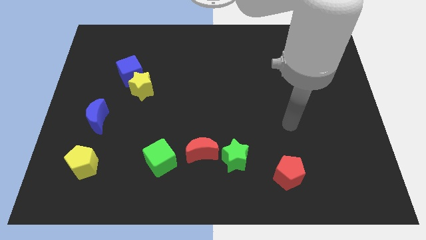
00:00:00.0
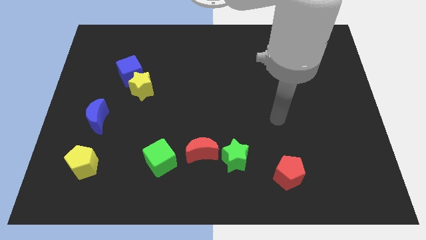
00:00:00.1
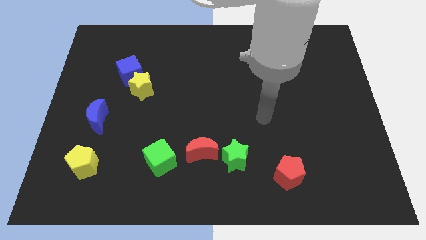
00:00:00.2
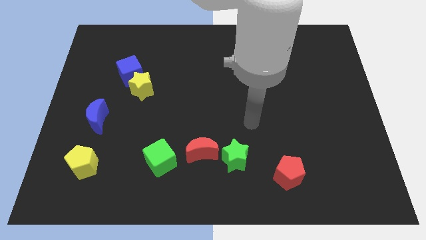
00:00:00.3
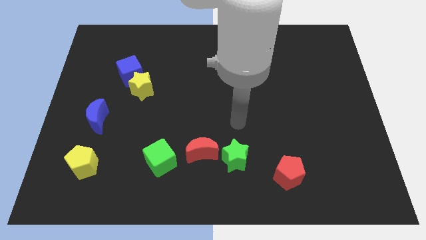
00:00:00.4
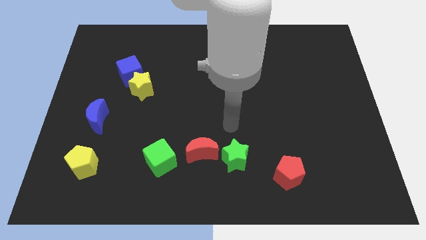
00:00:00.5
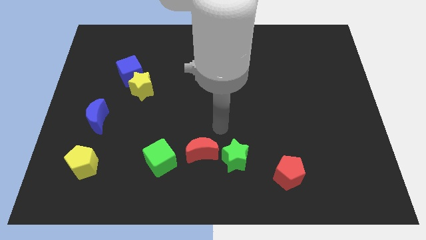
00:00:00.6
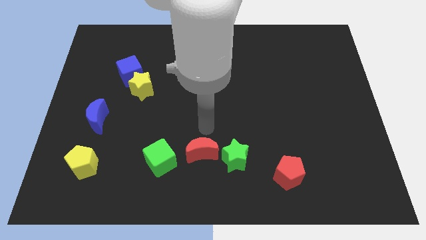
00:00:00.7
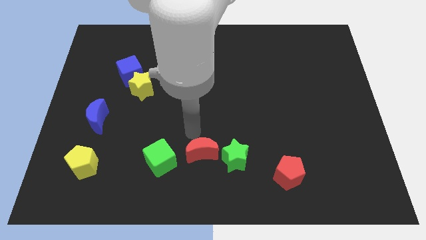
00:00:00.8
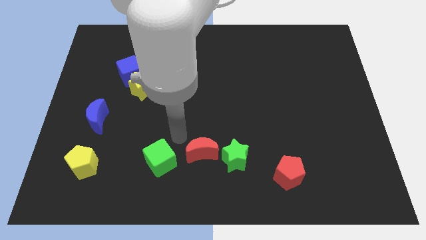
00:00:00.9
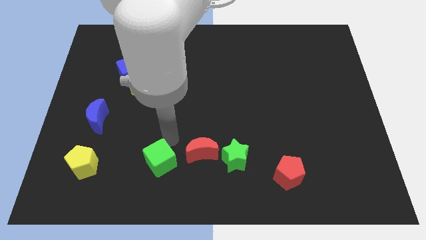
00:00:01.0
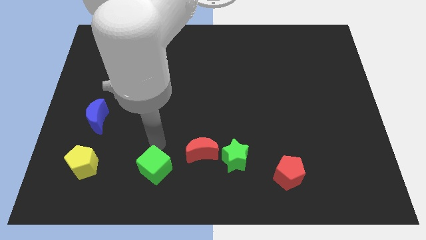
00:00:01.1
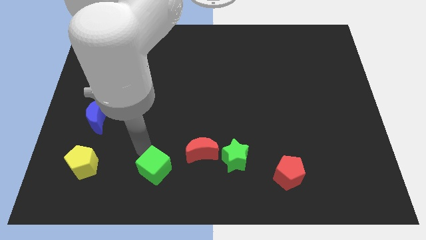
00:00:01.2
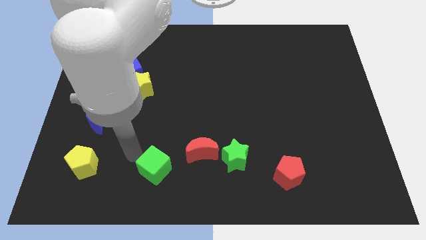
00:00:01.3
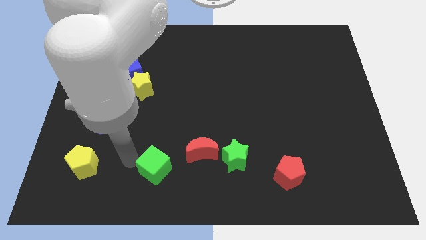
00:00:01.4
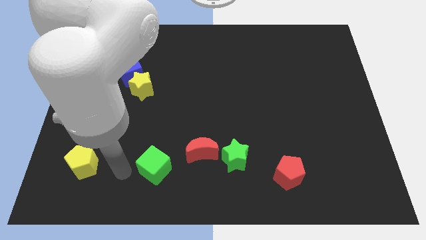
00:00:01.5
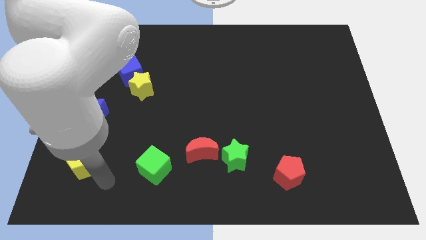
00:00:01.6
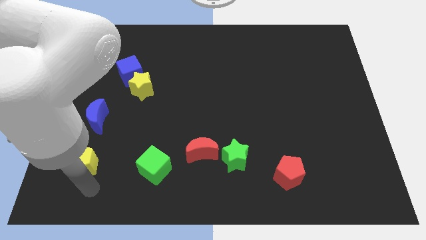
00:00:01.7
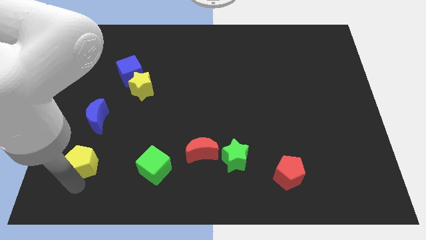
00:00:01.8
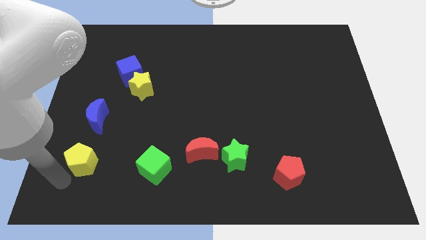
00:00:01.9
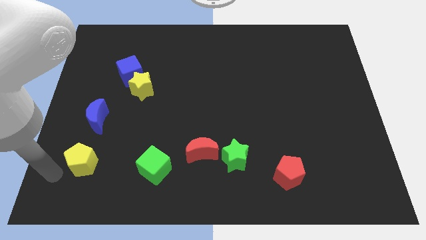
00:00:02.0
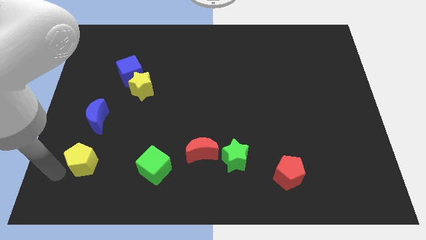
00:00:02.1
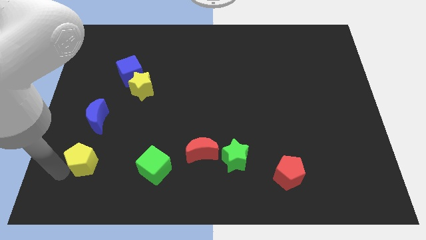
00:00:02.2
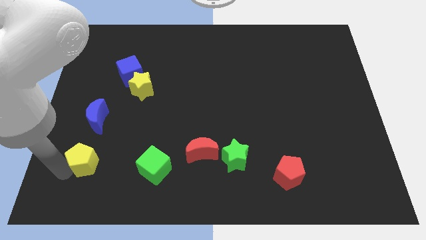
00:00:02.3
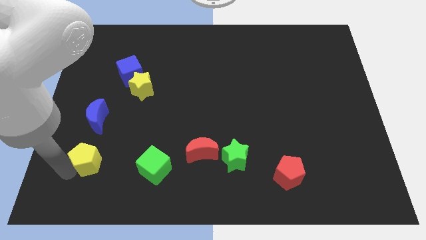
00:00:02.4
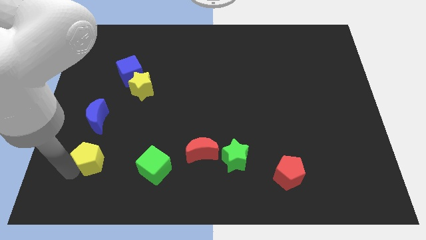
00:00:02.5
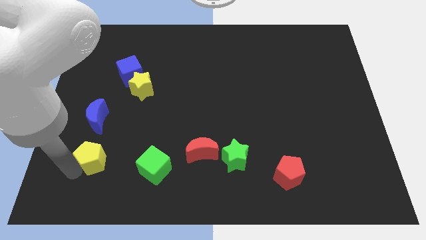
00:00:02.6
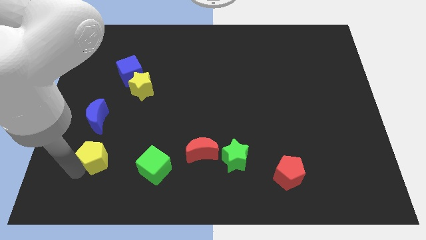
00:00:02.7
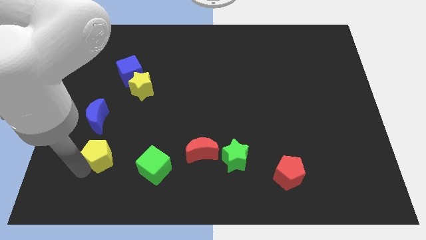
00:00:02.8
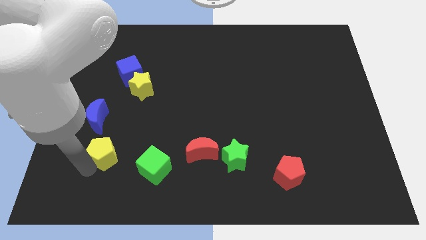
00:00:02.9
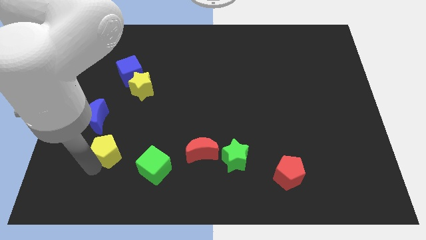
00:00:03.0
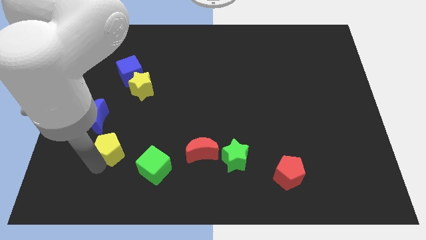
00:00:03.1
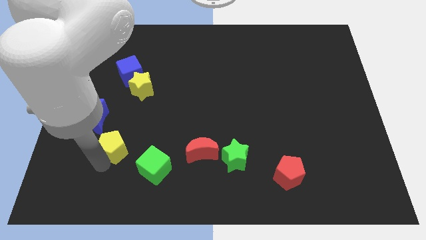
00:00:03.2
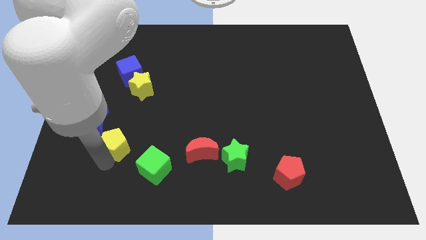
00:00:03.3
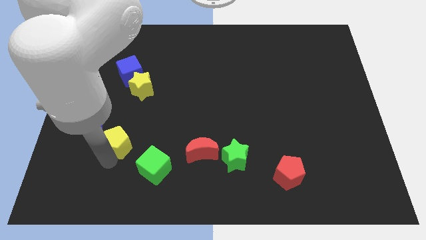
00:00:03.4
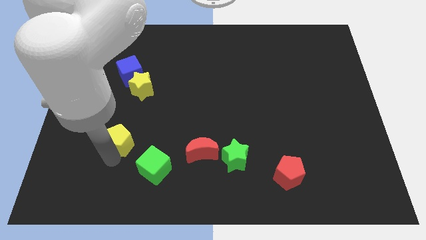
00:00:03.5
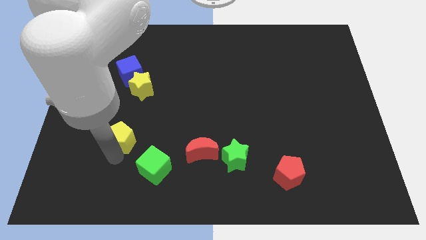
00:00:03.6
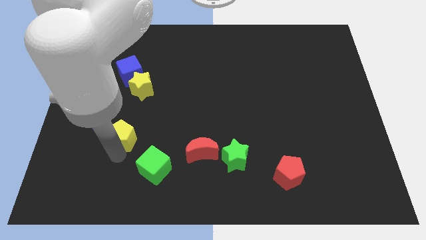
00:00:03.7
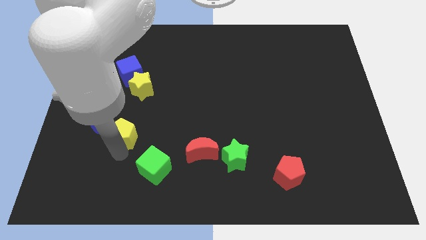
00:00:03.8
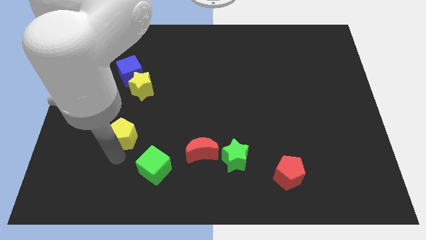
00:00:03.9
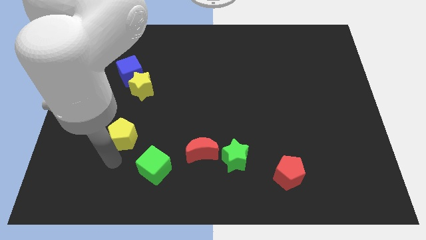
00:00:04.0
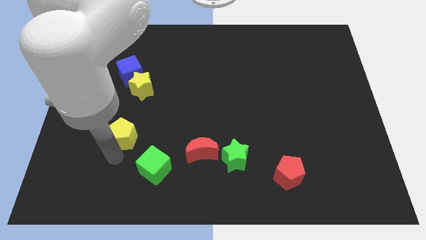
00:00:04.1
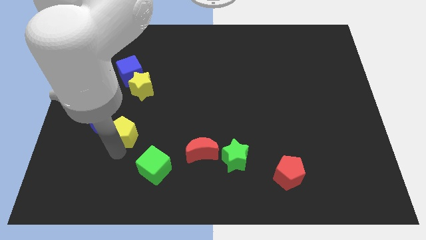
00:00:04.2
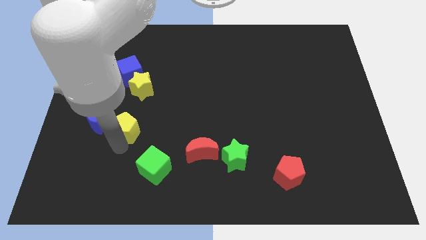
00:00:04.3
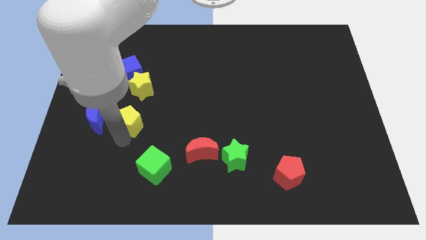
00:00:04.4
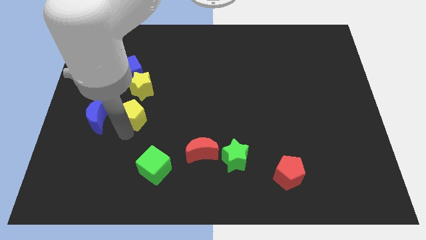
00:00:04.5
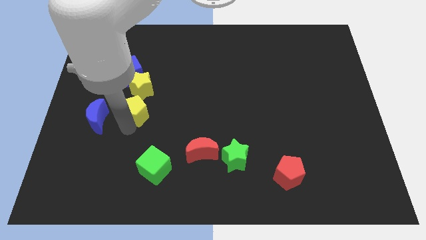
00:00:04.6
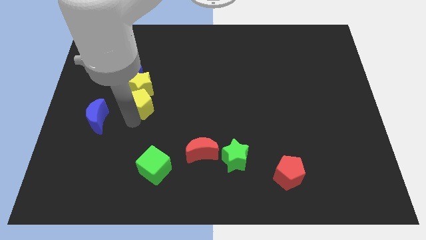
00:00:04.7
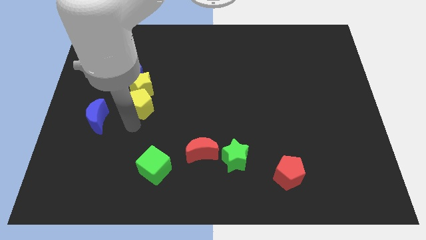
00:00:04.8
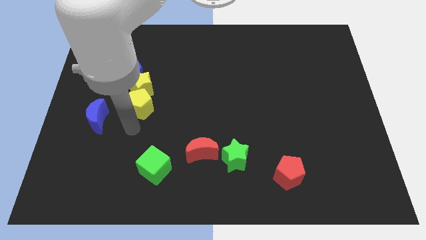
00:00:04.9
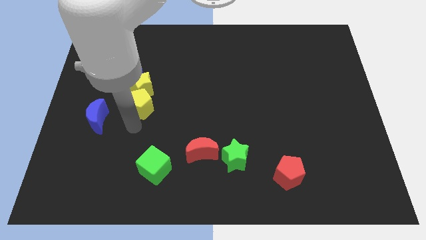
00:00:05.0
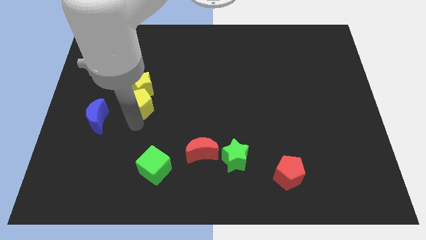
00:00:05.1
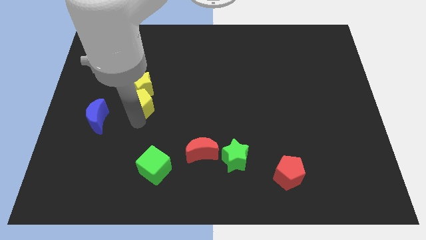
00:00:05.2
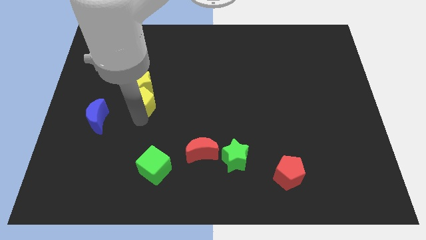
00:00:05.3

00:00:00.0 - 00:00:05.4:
move the yellow pentagon to the bottom right side of the blue cube

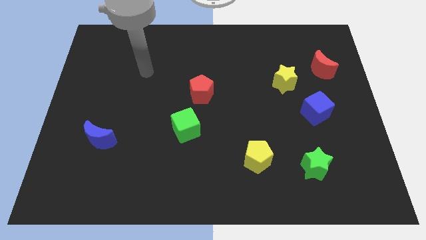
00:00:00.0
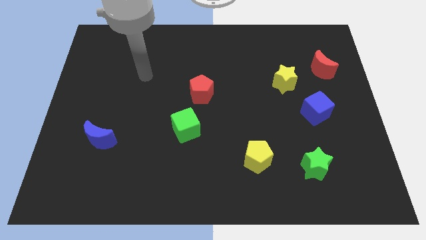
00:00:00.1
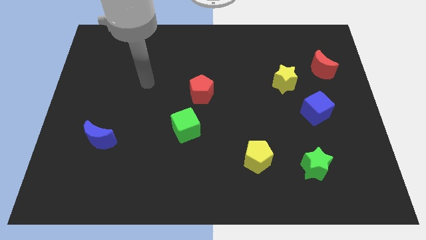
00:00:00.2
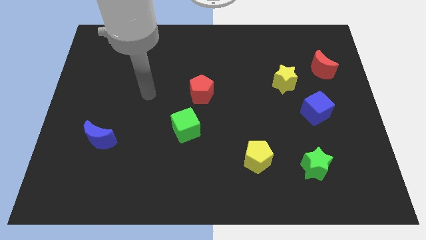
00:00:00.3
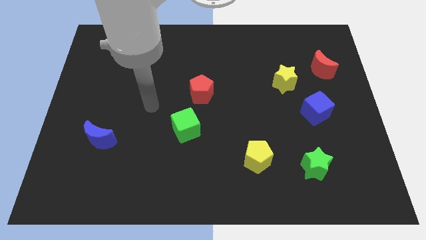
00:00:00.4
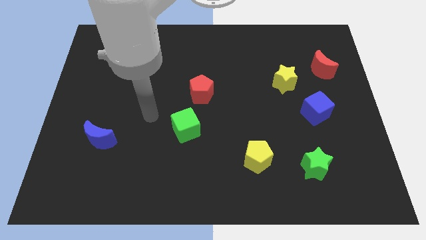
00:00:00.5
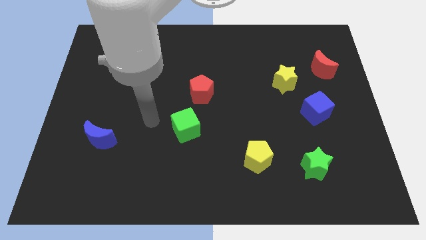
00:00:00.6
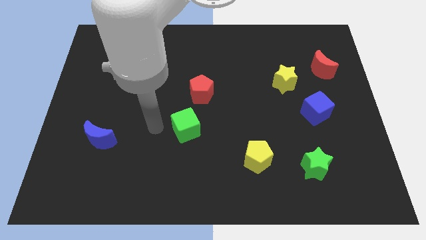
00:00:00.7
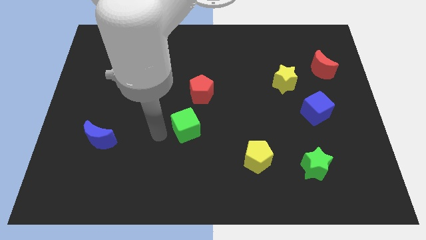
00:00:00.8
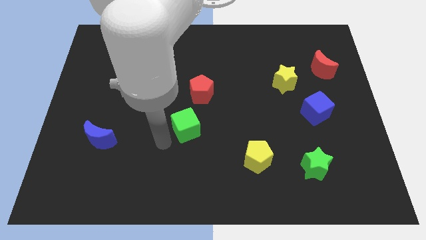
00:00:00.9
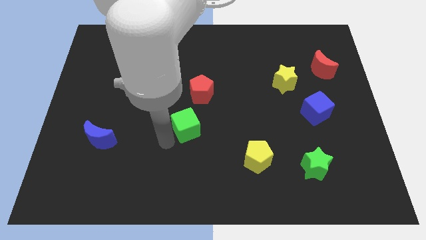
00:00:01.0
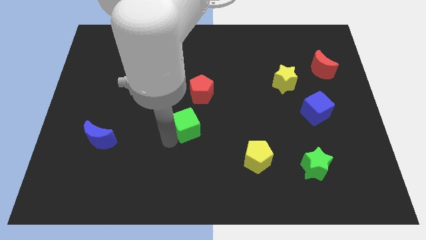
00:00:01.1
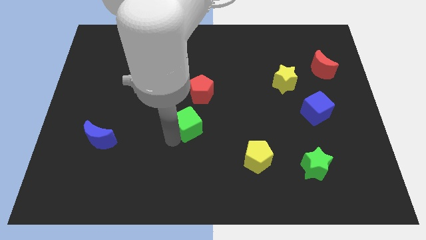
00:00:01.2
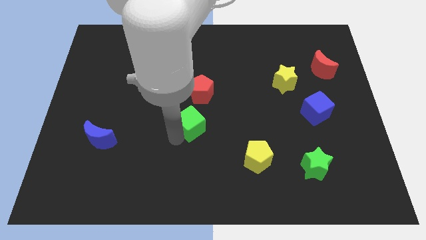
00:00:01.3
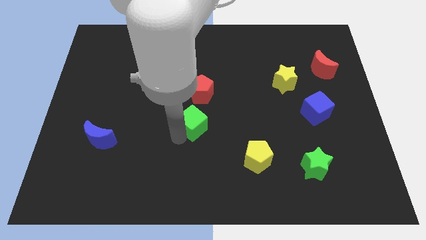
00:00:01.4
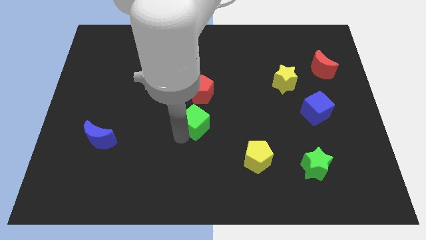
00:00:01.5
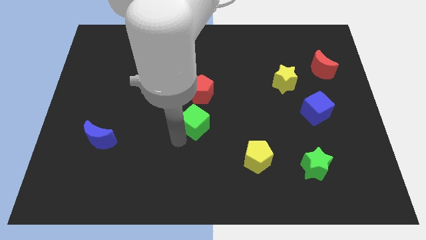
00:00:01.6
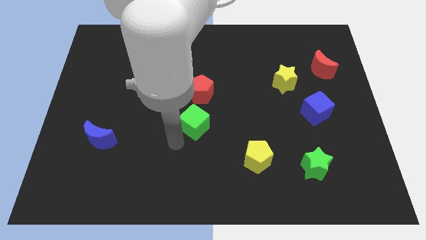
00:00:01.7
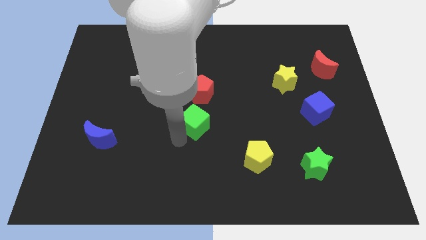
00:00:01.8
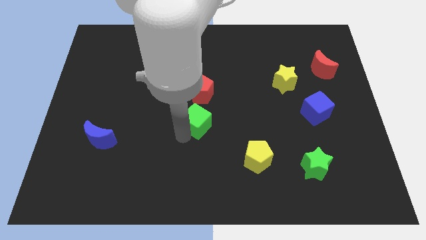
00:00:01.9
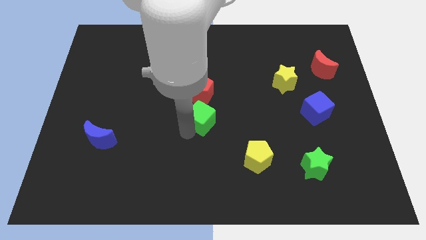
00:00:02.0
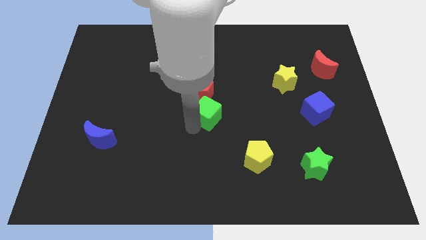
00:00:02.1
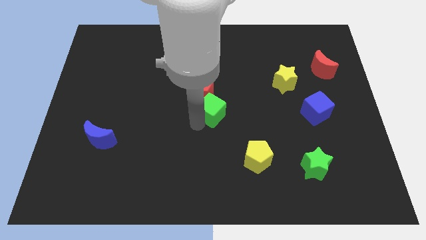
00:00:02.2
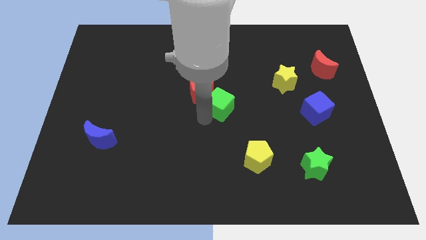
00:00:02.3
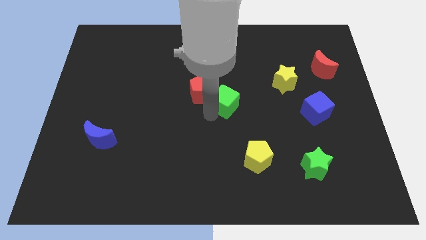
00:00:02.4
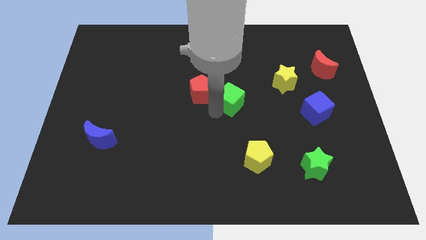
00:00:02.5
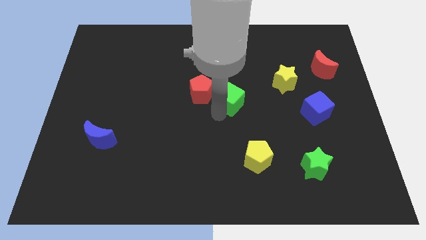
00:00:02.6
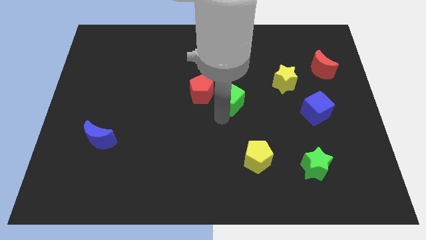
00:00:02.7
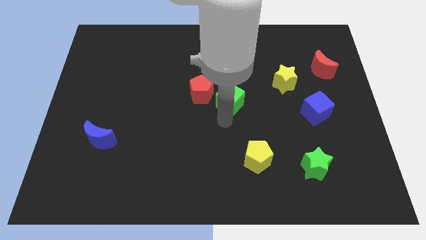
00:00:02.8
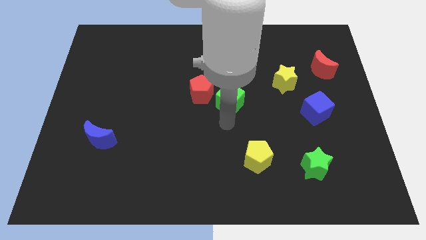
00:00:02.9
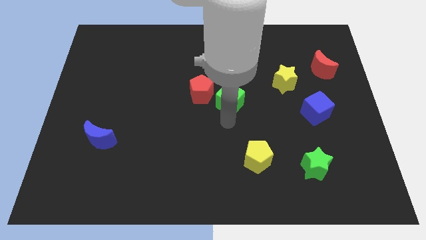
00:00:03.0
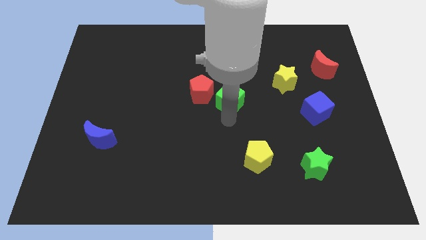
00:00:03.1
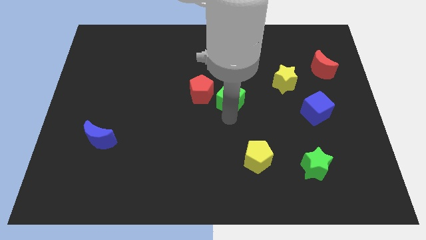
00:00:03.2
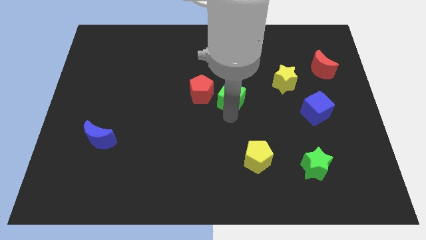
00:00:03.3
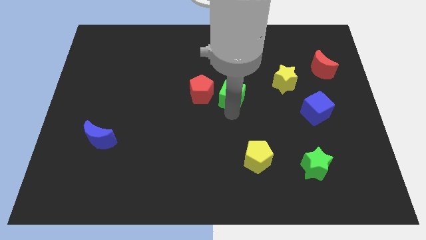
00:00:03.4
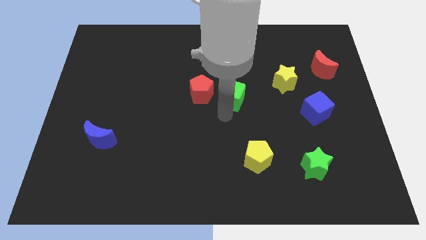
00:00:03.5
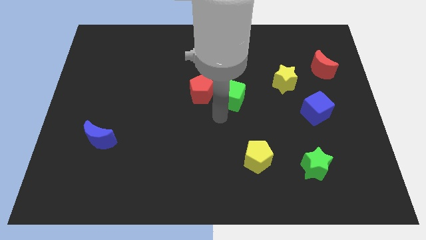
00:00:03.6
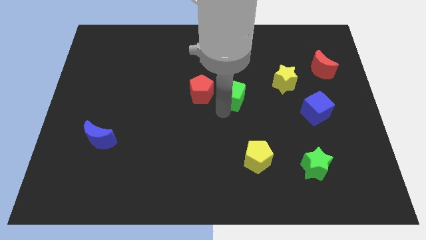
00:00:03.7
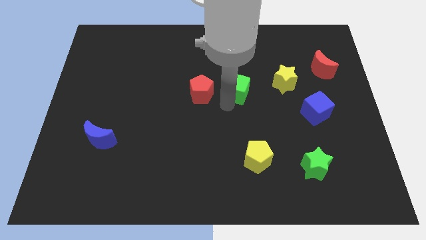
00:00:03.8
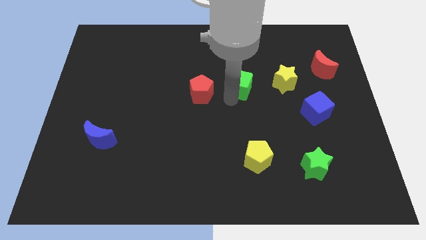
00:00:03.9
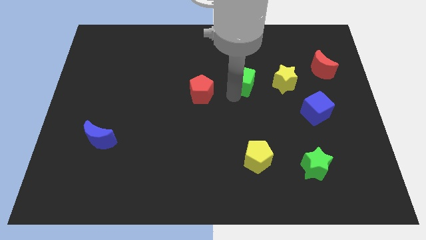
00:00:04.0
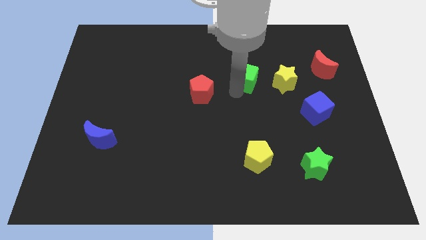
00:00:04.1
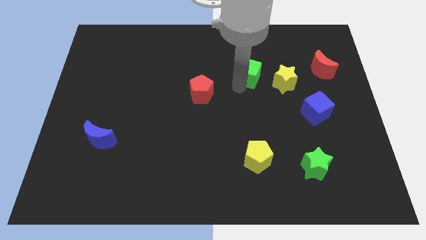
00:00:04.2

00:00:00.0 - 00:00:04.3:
move the green cube to the top left of the yellow star
